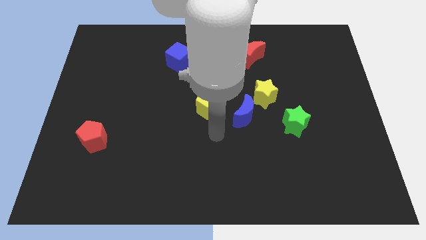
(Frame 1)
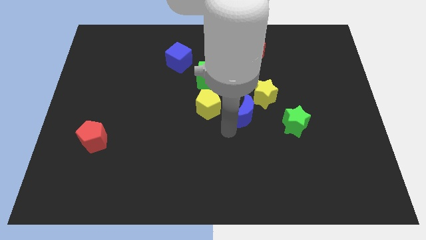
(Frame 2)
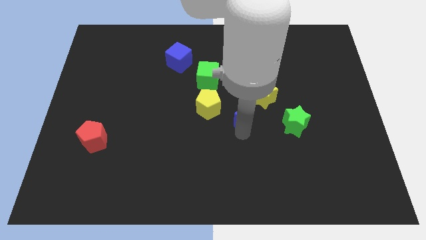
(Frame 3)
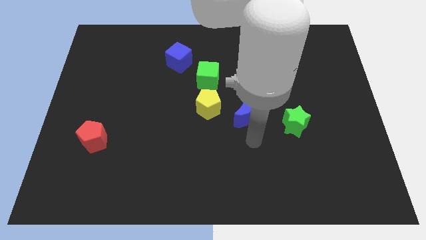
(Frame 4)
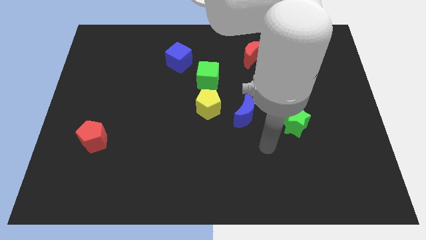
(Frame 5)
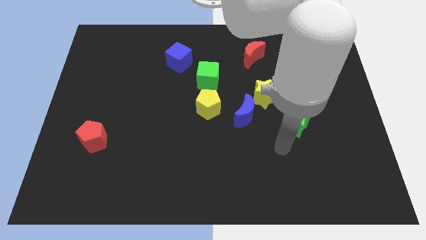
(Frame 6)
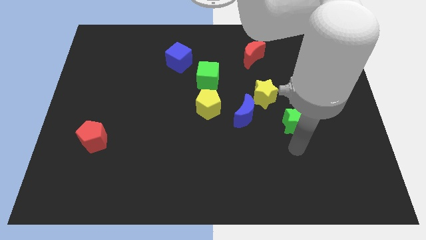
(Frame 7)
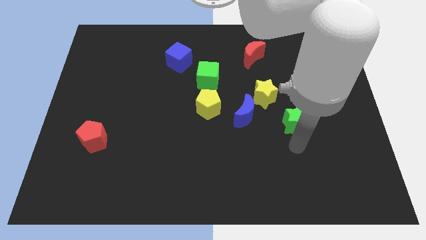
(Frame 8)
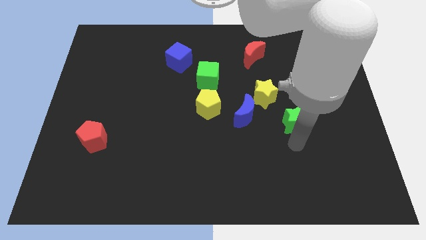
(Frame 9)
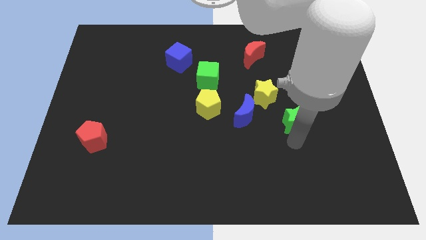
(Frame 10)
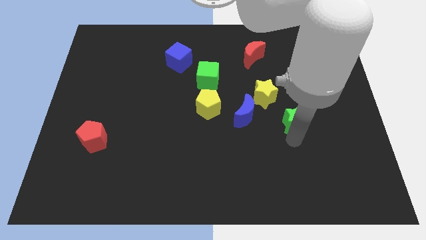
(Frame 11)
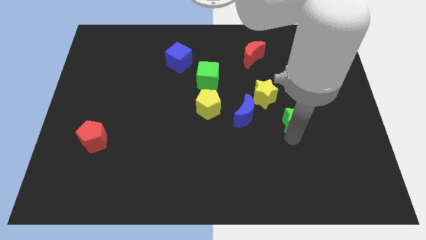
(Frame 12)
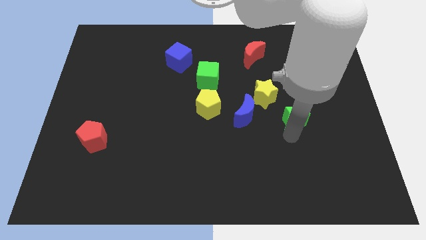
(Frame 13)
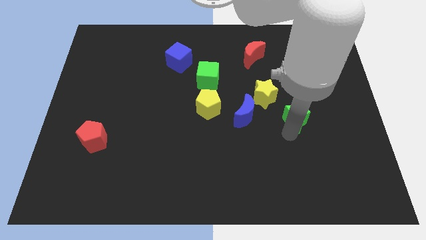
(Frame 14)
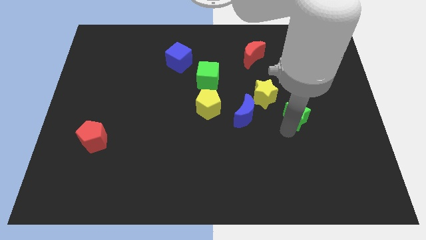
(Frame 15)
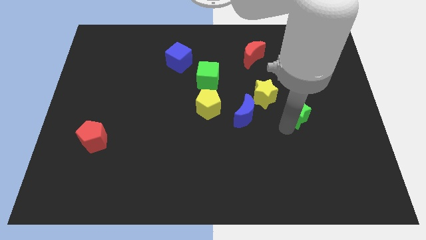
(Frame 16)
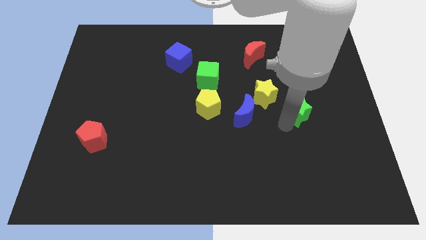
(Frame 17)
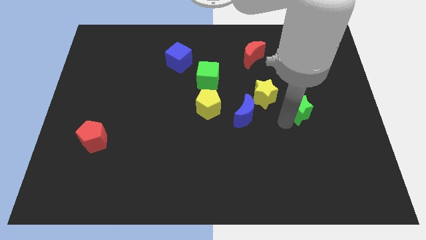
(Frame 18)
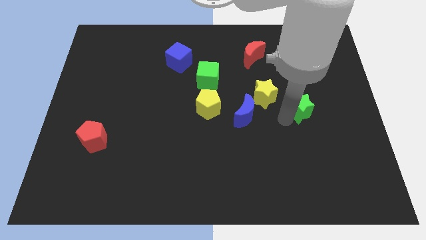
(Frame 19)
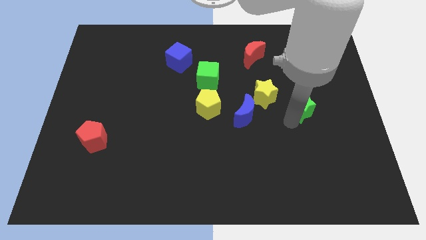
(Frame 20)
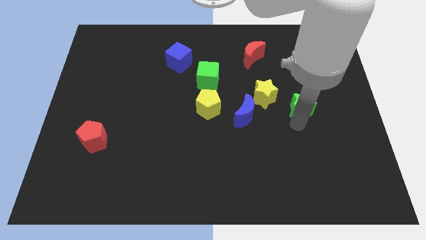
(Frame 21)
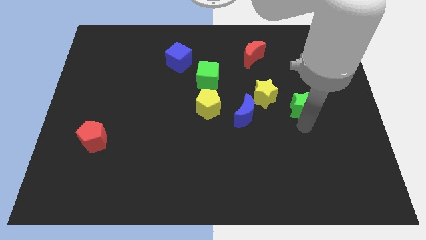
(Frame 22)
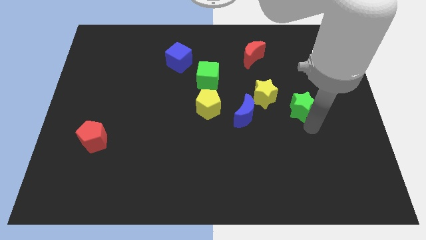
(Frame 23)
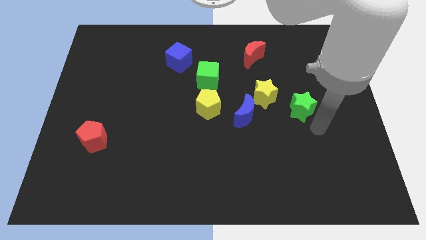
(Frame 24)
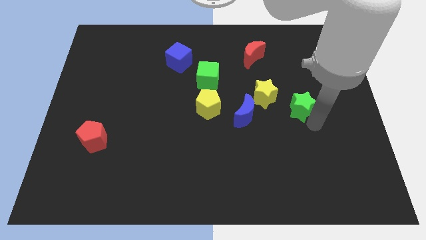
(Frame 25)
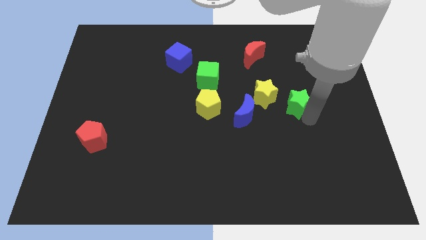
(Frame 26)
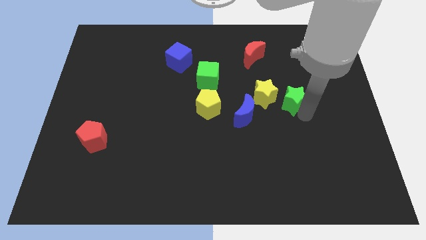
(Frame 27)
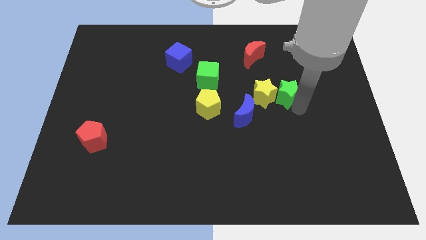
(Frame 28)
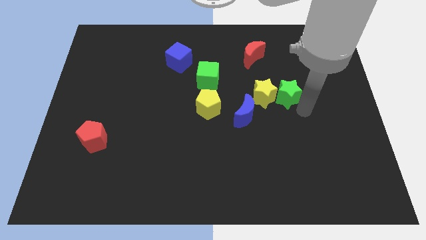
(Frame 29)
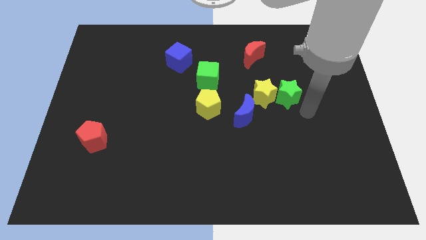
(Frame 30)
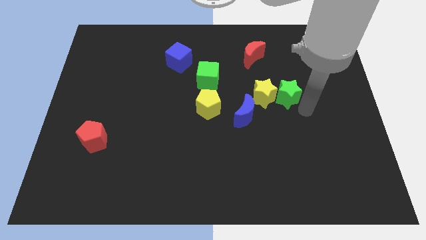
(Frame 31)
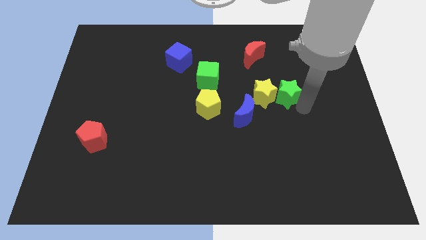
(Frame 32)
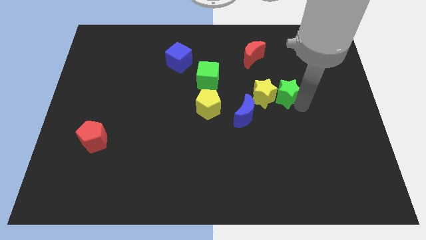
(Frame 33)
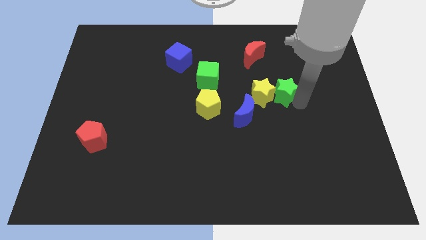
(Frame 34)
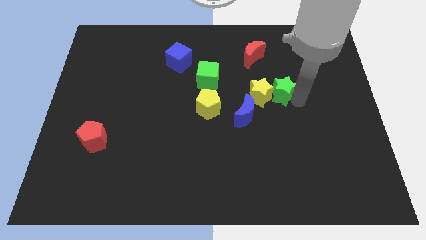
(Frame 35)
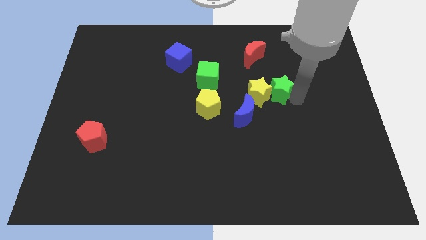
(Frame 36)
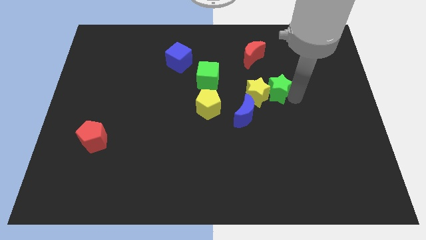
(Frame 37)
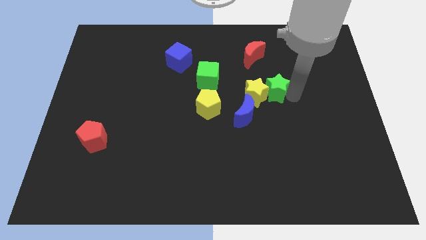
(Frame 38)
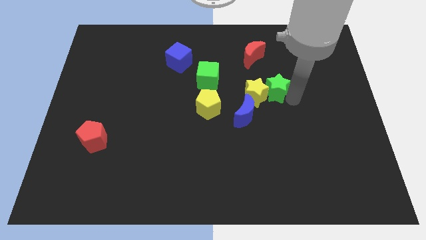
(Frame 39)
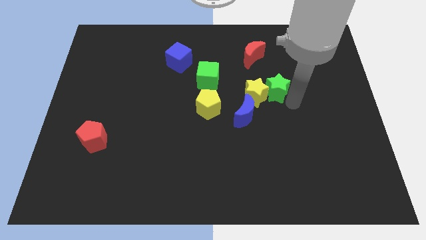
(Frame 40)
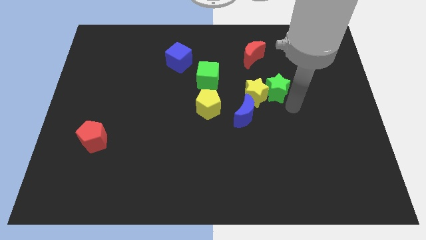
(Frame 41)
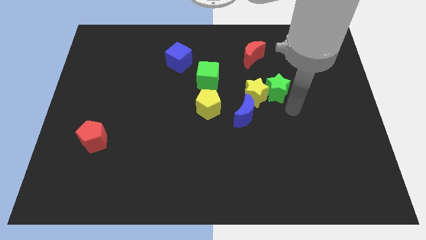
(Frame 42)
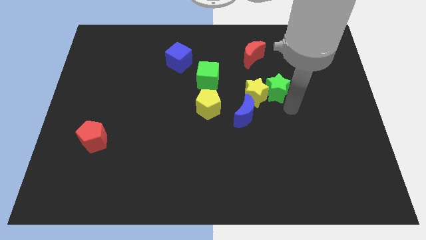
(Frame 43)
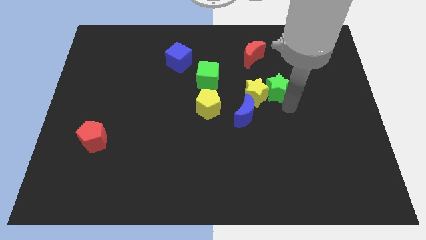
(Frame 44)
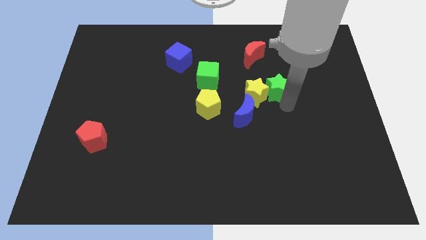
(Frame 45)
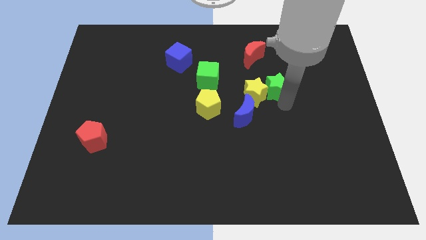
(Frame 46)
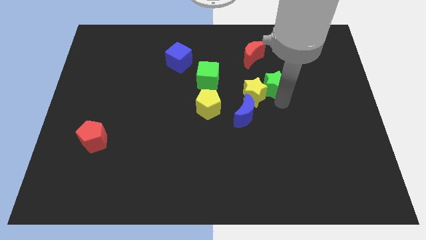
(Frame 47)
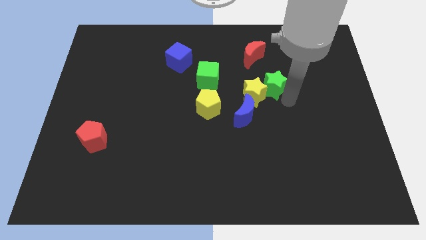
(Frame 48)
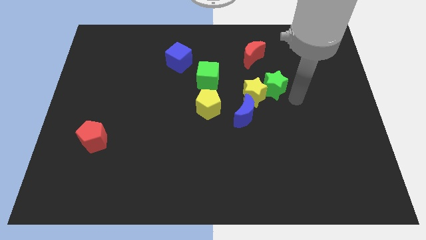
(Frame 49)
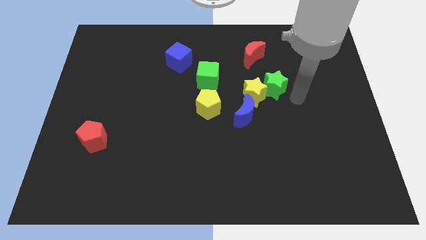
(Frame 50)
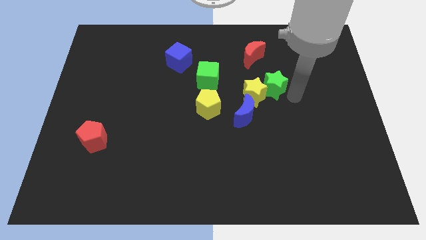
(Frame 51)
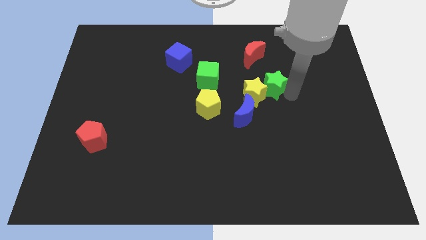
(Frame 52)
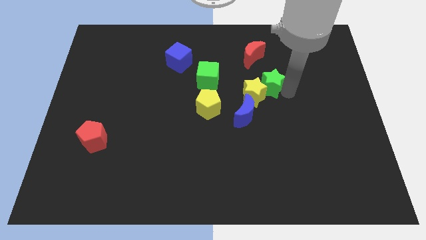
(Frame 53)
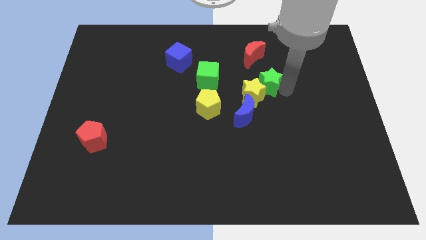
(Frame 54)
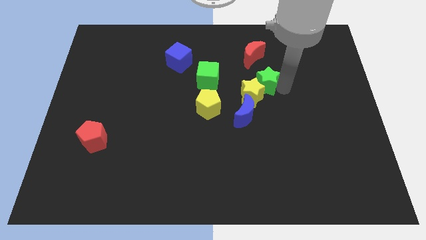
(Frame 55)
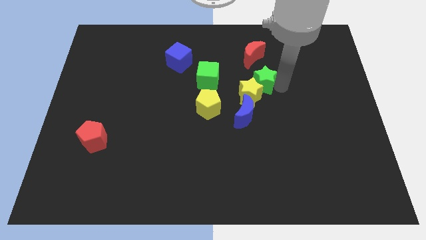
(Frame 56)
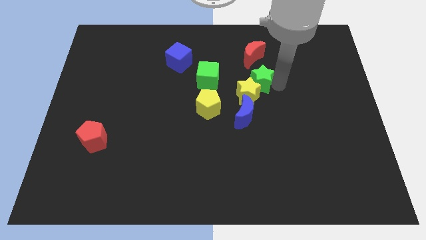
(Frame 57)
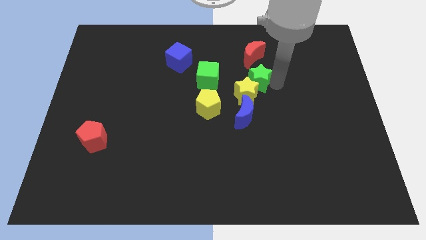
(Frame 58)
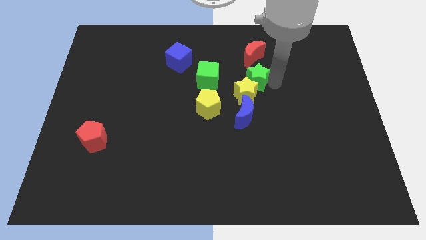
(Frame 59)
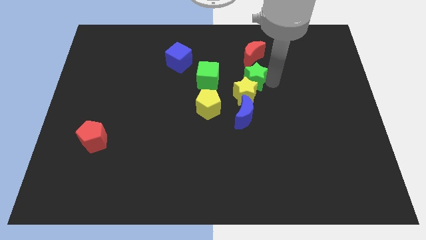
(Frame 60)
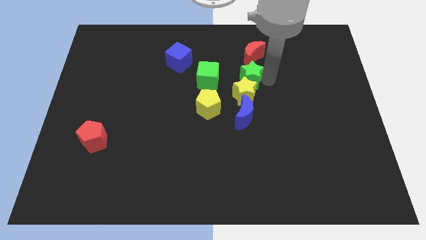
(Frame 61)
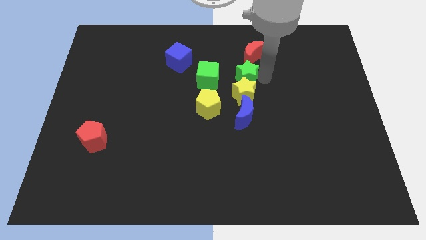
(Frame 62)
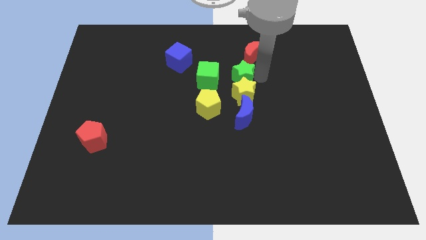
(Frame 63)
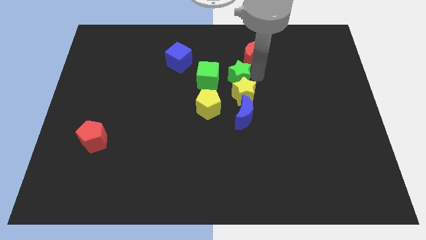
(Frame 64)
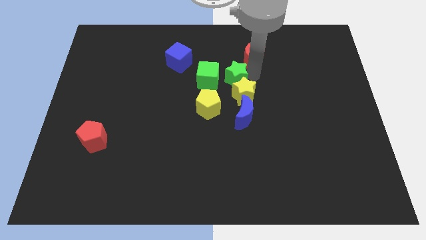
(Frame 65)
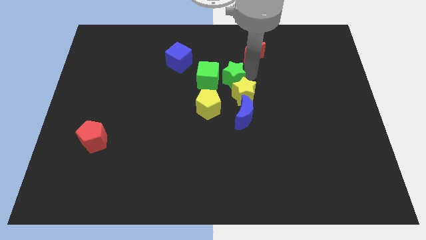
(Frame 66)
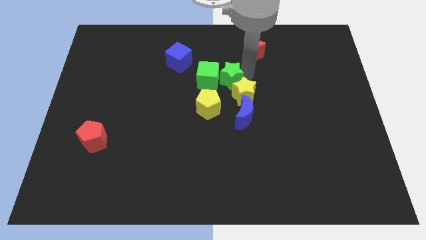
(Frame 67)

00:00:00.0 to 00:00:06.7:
slide the green star close to the green cube
